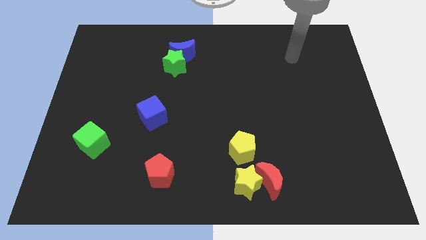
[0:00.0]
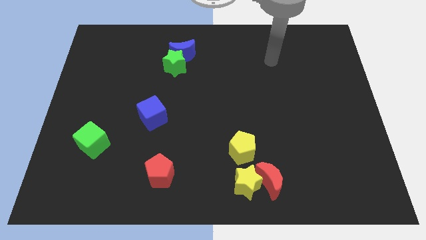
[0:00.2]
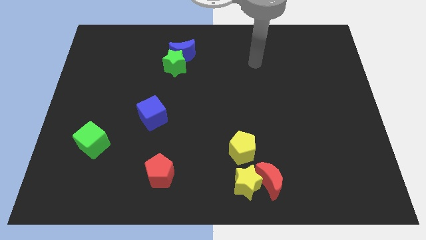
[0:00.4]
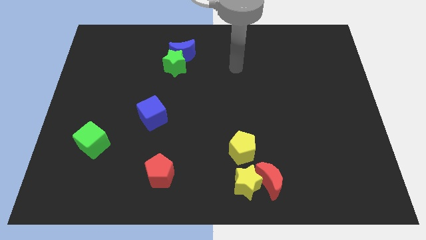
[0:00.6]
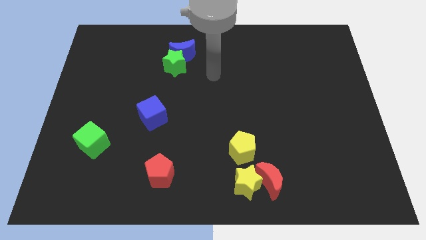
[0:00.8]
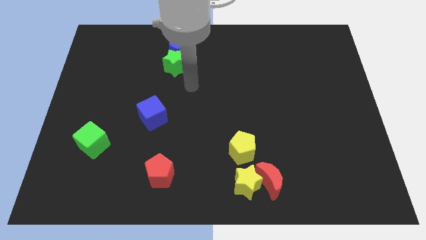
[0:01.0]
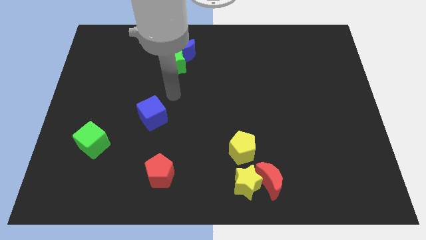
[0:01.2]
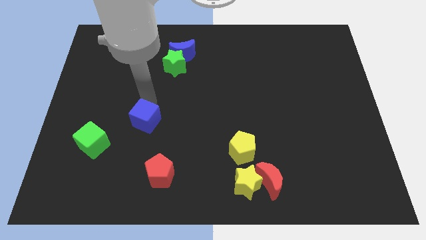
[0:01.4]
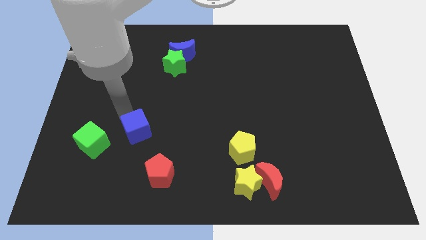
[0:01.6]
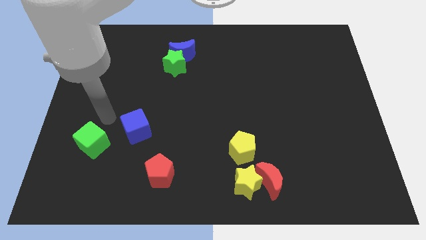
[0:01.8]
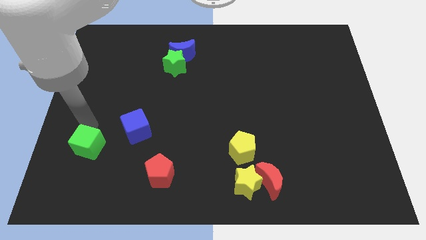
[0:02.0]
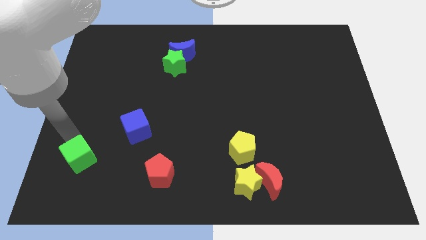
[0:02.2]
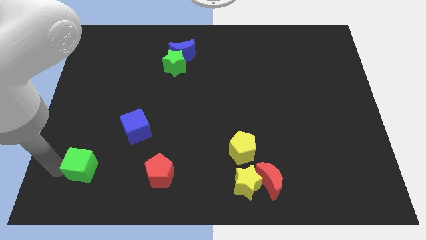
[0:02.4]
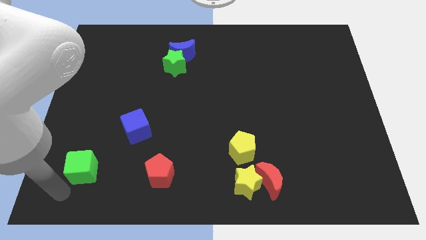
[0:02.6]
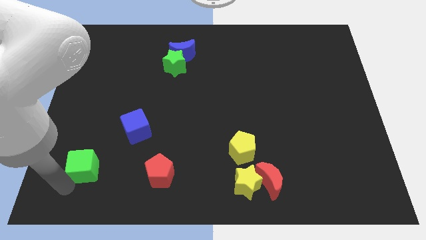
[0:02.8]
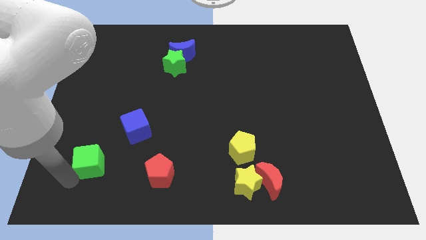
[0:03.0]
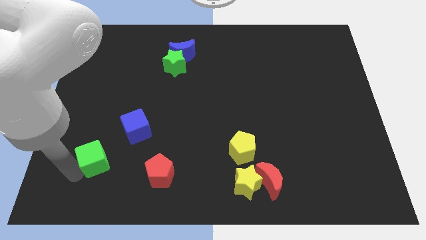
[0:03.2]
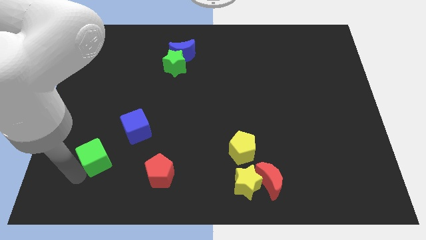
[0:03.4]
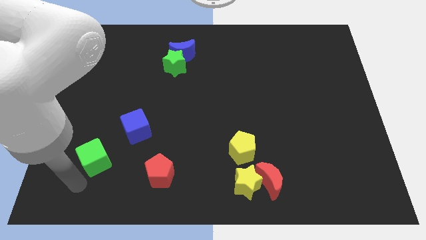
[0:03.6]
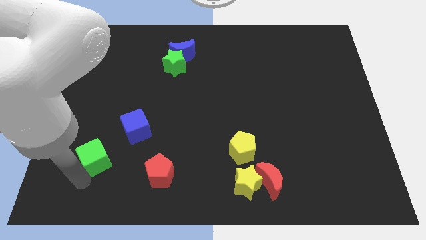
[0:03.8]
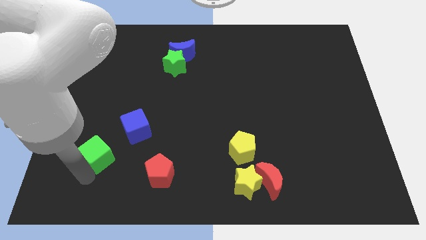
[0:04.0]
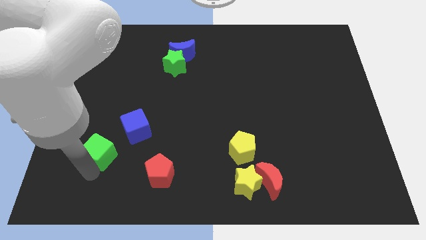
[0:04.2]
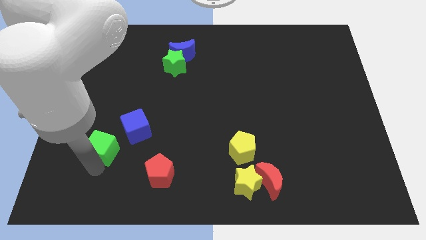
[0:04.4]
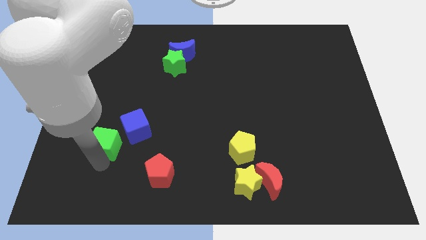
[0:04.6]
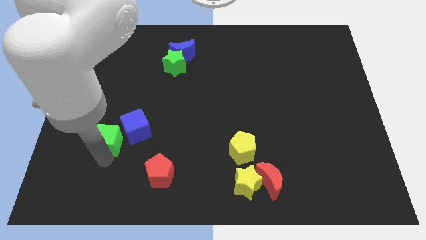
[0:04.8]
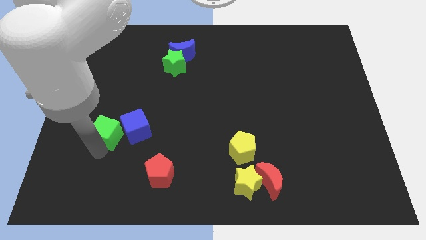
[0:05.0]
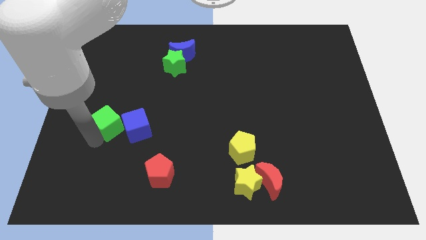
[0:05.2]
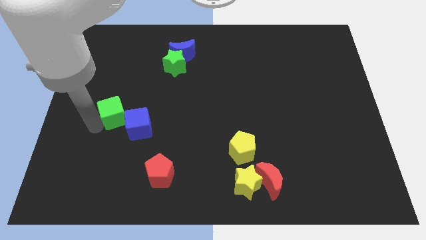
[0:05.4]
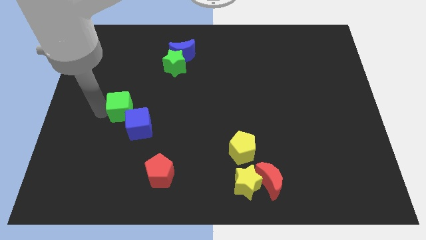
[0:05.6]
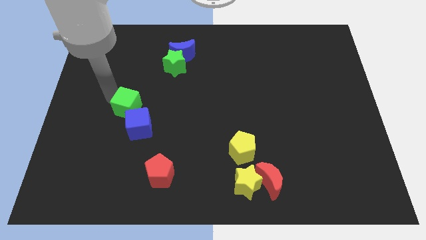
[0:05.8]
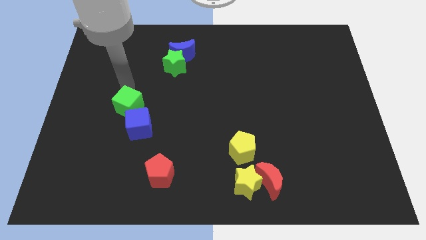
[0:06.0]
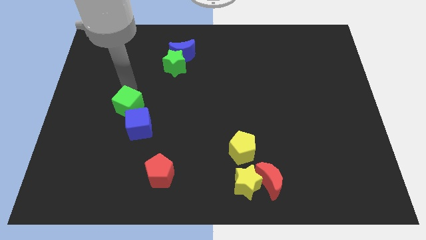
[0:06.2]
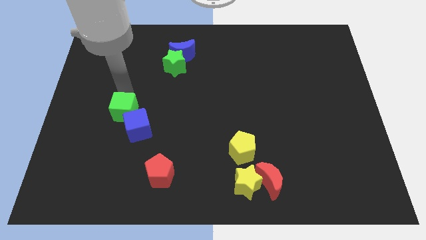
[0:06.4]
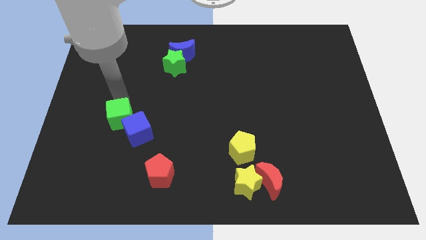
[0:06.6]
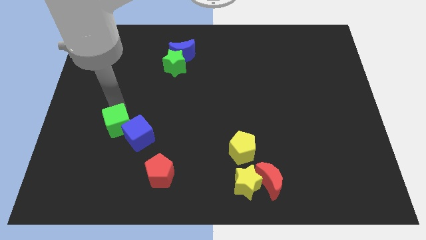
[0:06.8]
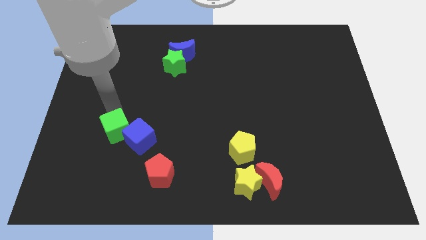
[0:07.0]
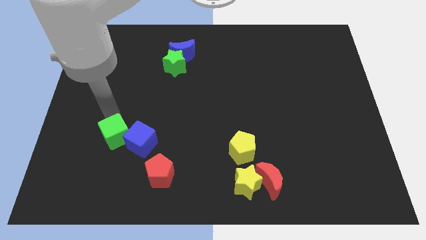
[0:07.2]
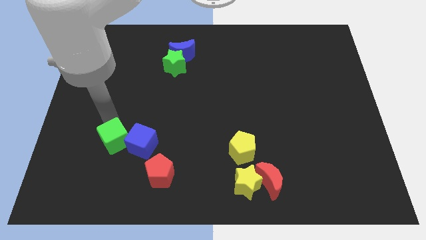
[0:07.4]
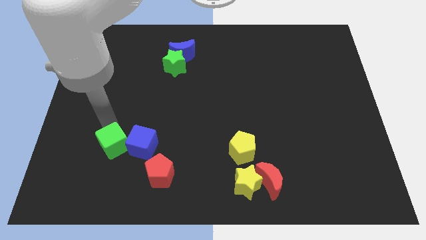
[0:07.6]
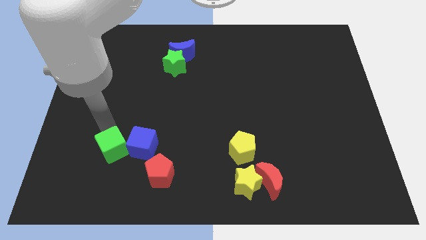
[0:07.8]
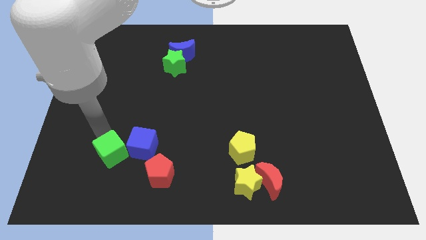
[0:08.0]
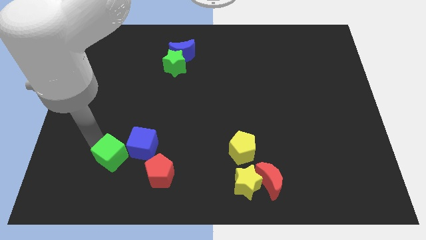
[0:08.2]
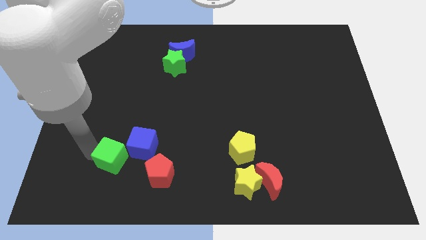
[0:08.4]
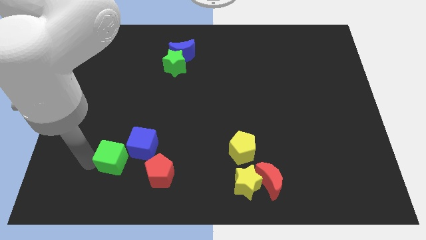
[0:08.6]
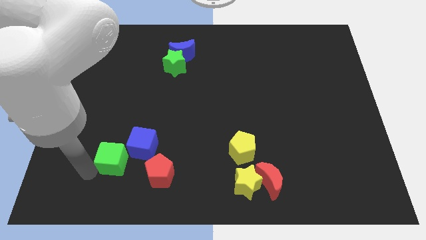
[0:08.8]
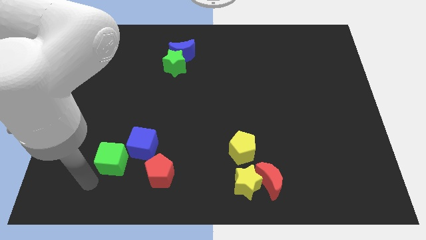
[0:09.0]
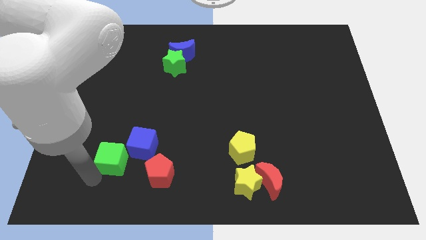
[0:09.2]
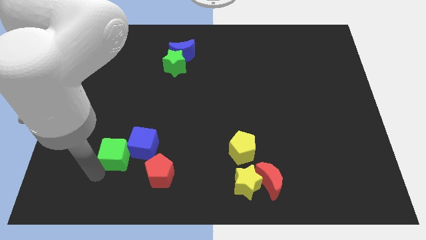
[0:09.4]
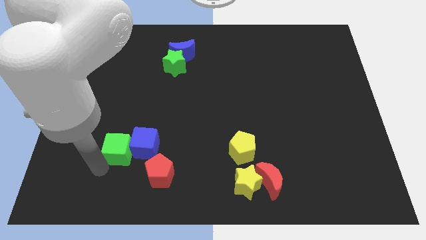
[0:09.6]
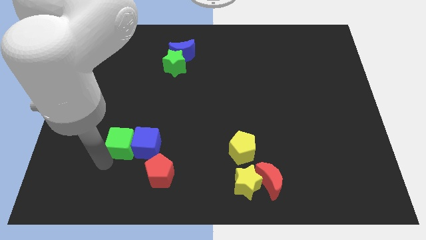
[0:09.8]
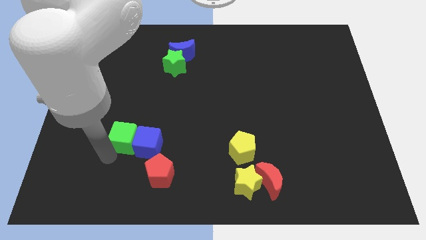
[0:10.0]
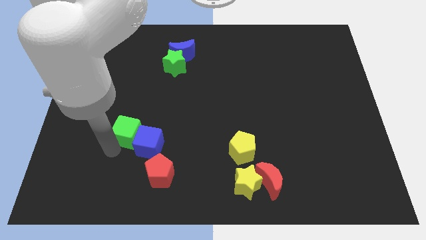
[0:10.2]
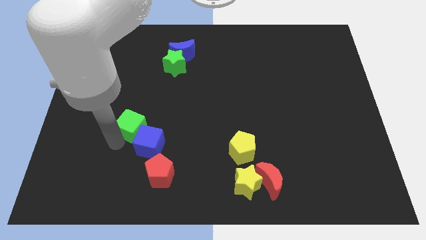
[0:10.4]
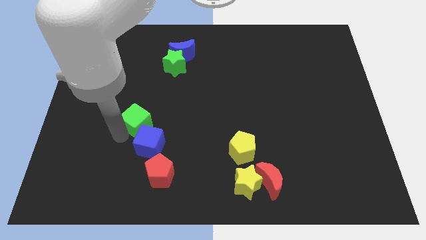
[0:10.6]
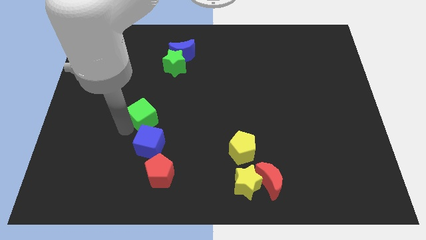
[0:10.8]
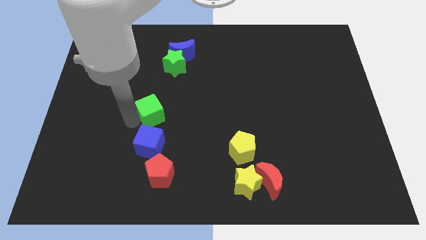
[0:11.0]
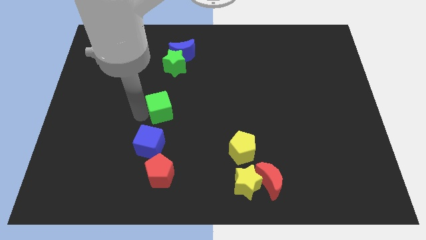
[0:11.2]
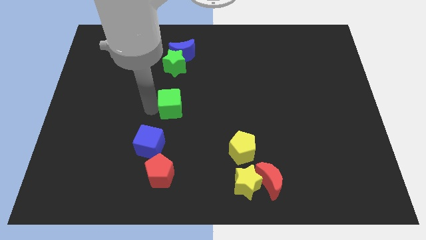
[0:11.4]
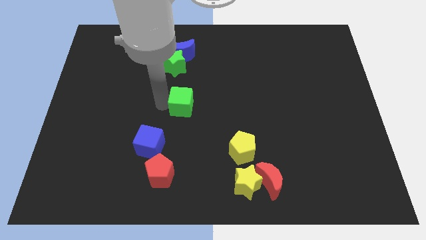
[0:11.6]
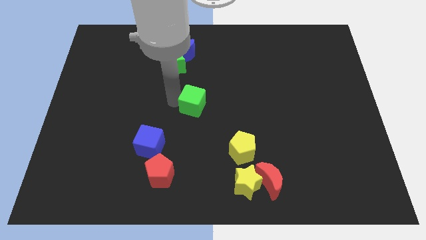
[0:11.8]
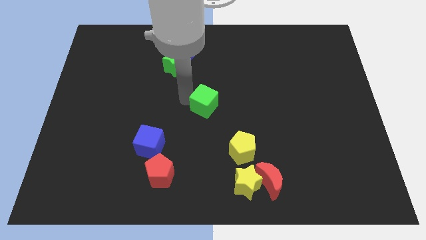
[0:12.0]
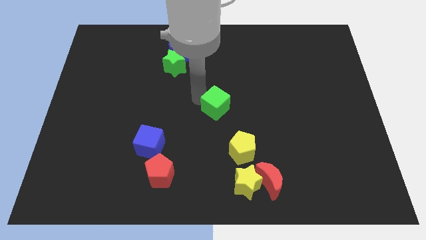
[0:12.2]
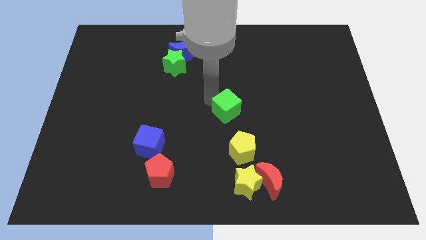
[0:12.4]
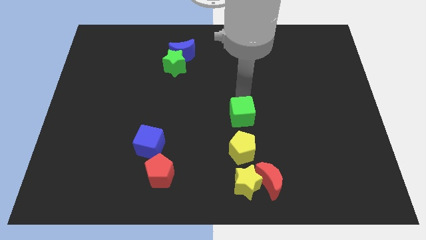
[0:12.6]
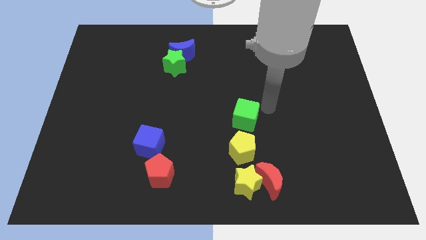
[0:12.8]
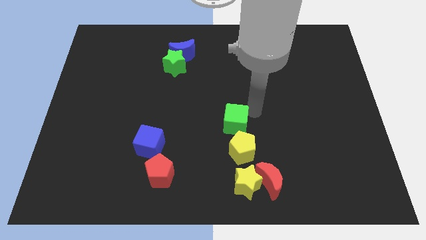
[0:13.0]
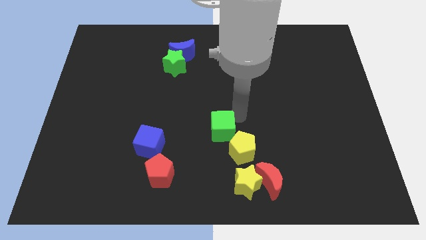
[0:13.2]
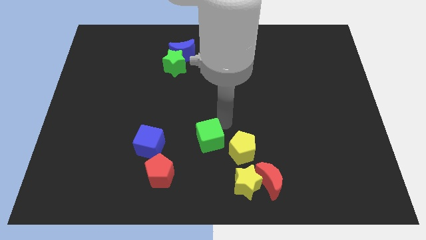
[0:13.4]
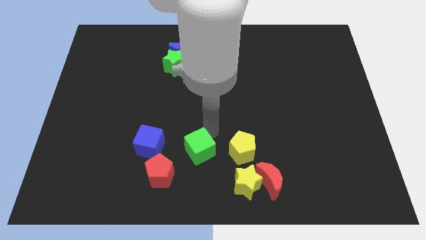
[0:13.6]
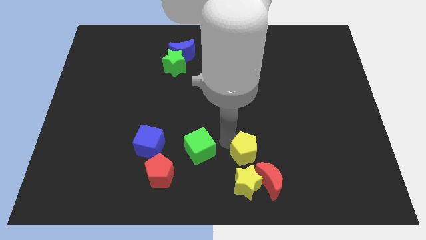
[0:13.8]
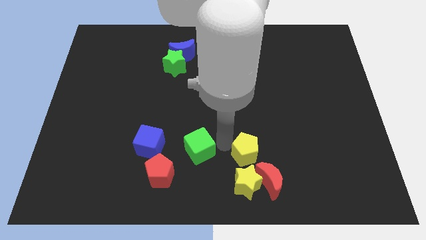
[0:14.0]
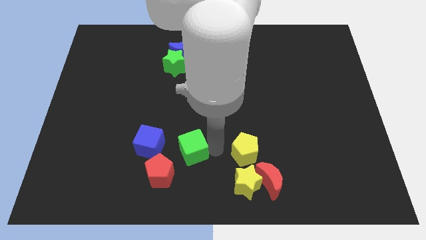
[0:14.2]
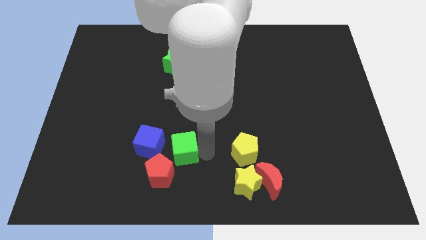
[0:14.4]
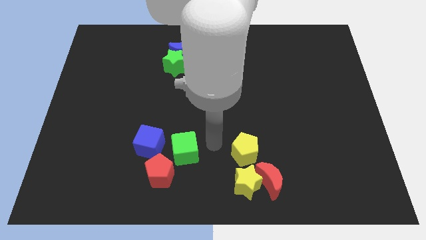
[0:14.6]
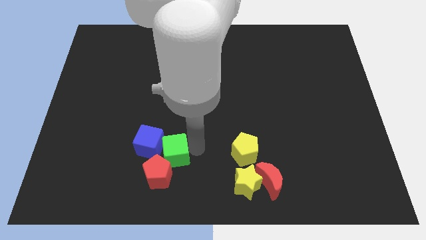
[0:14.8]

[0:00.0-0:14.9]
slide the green cube to the red pentagon
